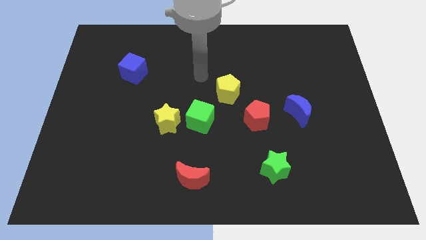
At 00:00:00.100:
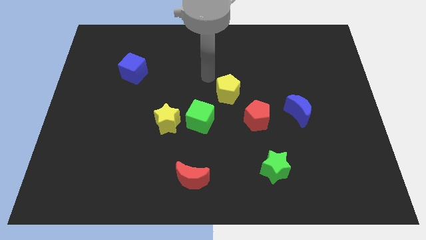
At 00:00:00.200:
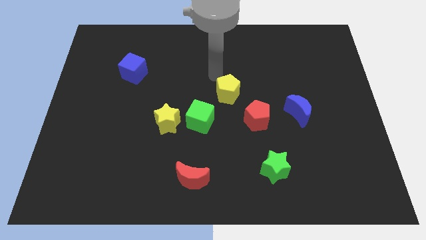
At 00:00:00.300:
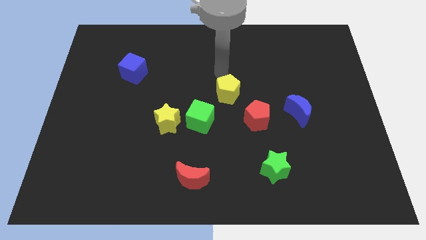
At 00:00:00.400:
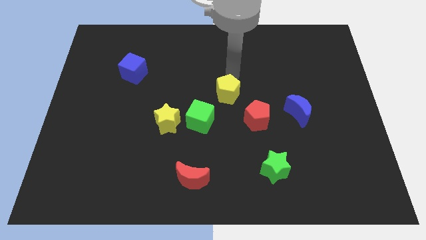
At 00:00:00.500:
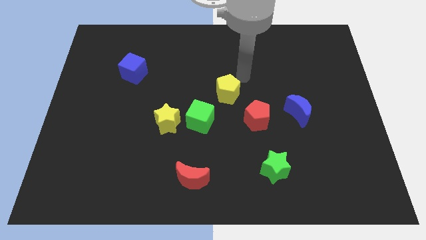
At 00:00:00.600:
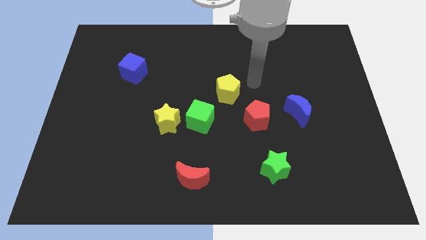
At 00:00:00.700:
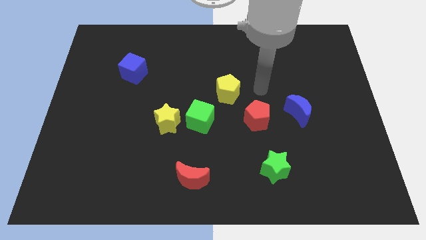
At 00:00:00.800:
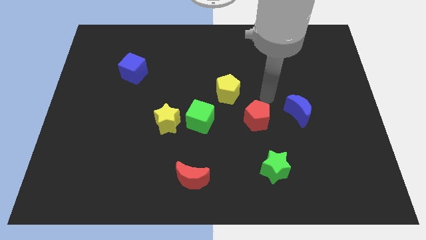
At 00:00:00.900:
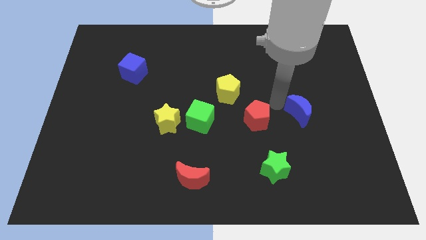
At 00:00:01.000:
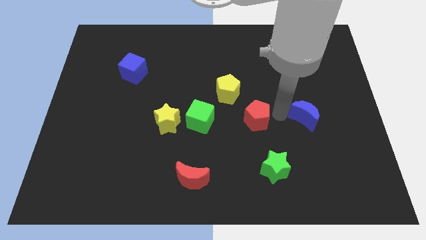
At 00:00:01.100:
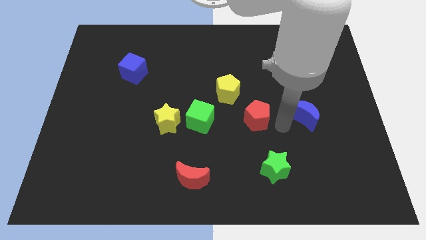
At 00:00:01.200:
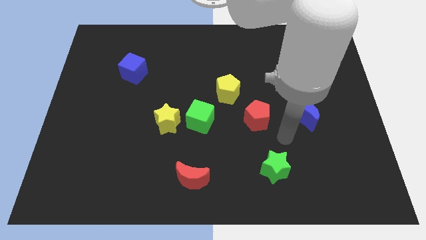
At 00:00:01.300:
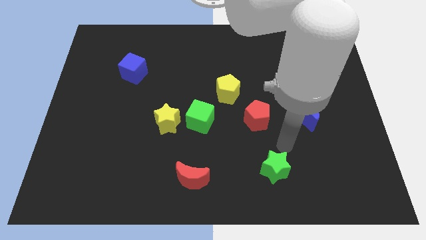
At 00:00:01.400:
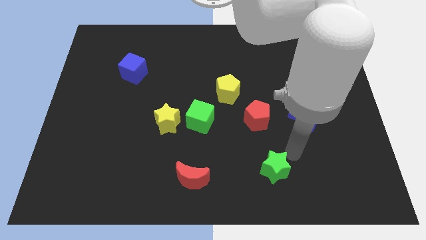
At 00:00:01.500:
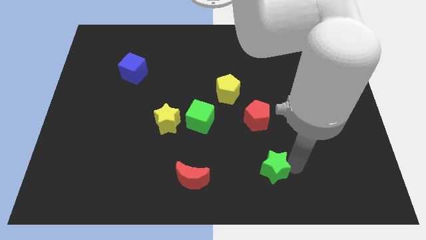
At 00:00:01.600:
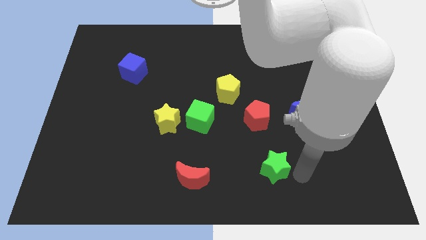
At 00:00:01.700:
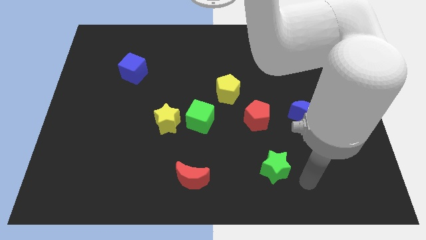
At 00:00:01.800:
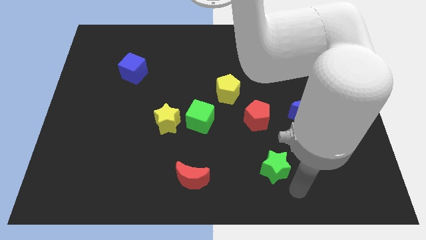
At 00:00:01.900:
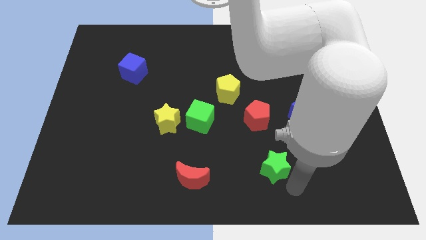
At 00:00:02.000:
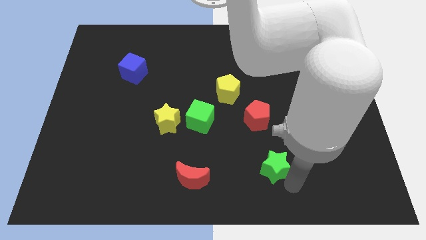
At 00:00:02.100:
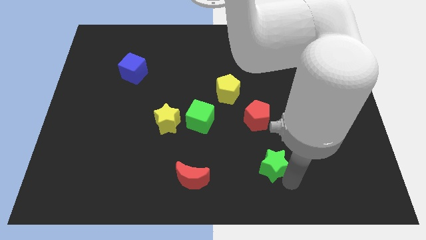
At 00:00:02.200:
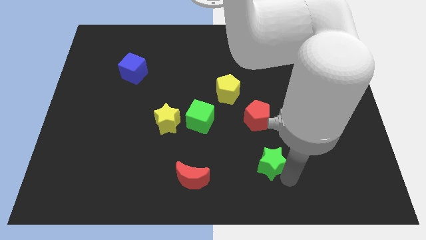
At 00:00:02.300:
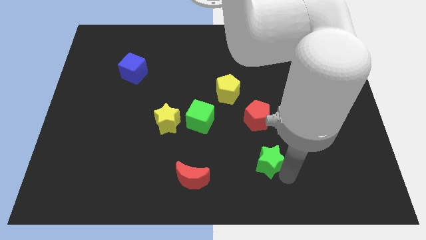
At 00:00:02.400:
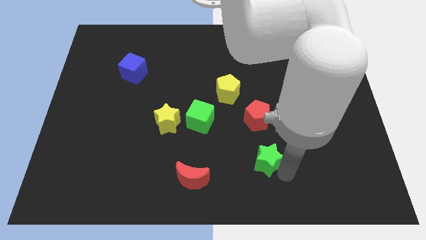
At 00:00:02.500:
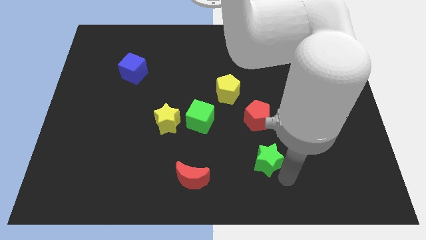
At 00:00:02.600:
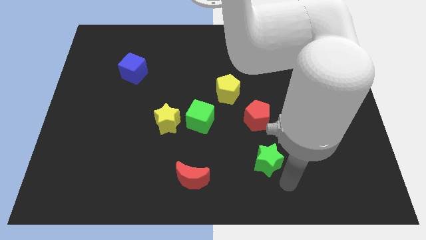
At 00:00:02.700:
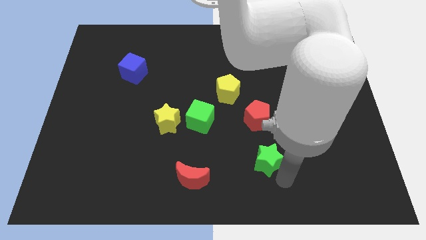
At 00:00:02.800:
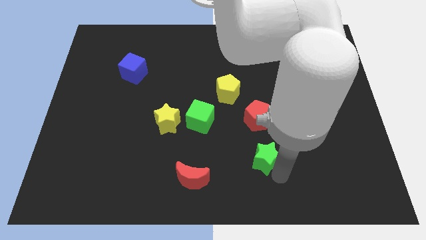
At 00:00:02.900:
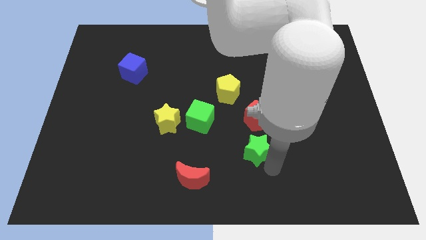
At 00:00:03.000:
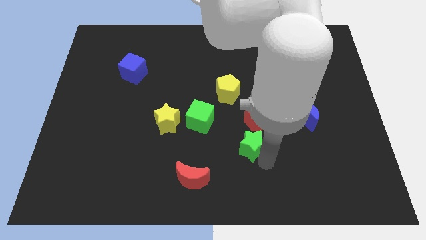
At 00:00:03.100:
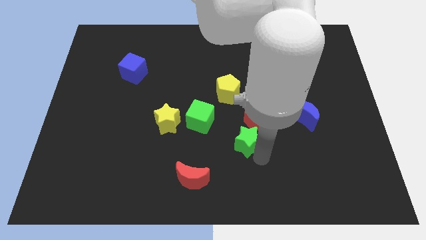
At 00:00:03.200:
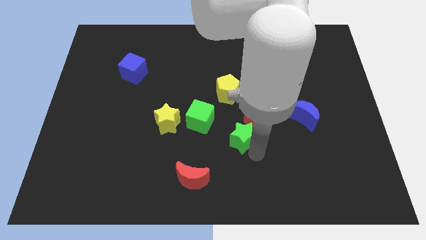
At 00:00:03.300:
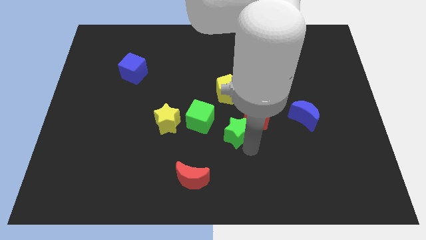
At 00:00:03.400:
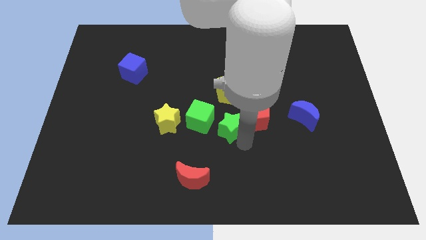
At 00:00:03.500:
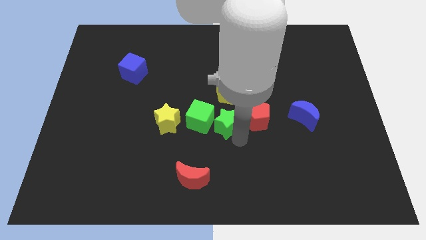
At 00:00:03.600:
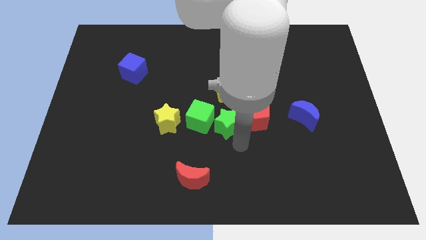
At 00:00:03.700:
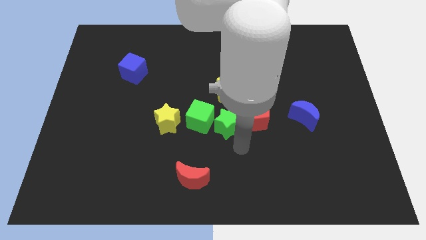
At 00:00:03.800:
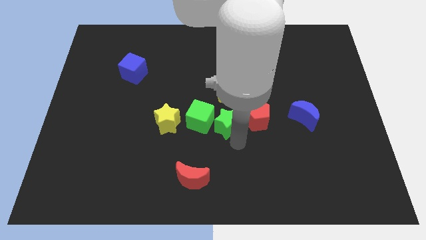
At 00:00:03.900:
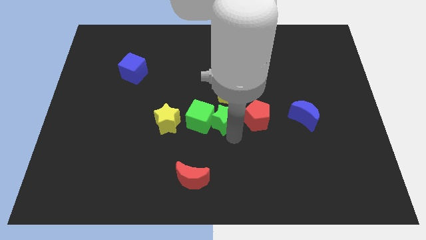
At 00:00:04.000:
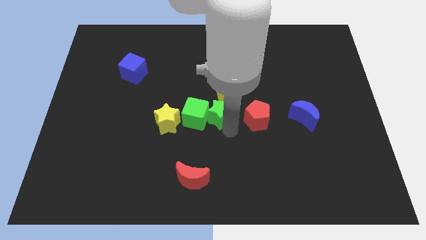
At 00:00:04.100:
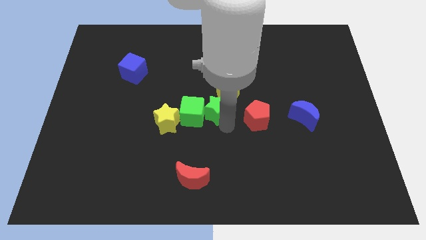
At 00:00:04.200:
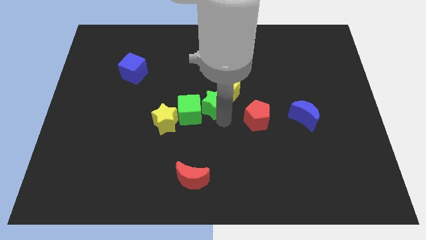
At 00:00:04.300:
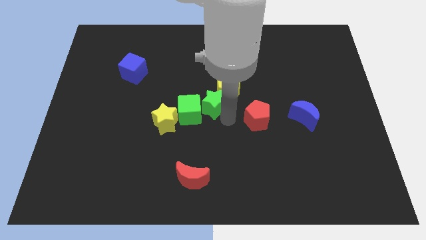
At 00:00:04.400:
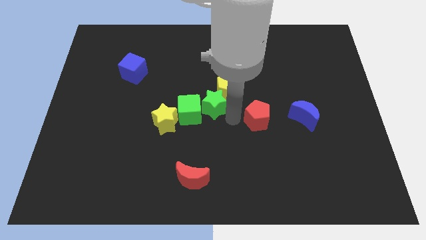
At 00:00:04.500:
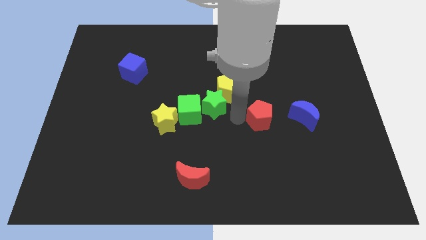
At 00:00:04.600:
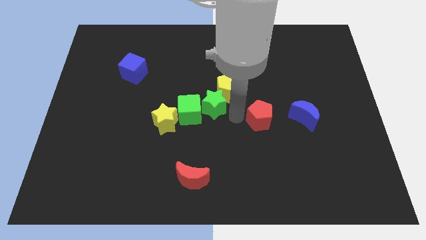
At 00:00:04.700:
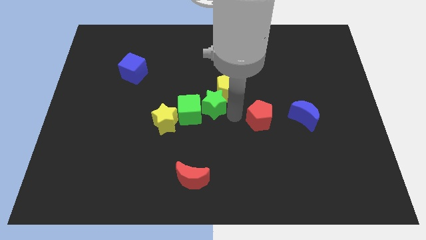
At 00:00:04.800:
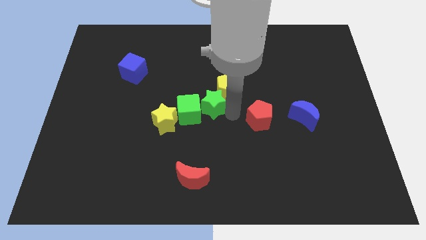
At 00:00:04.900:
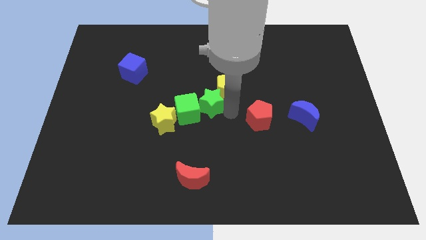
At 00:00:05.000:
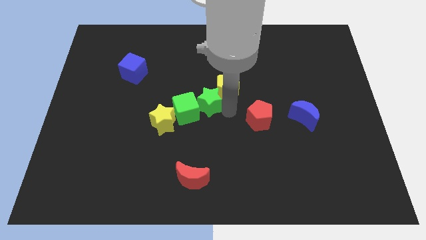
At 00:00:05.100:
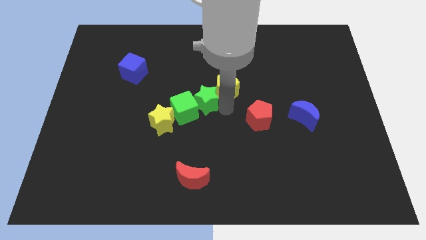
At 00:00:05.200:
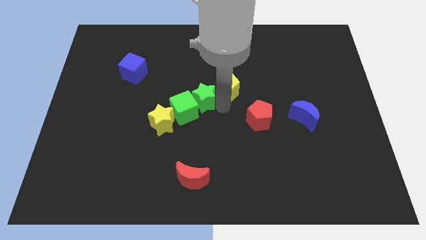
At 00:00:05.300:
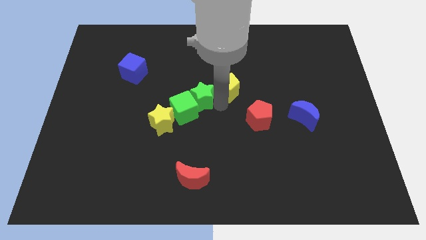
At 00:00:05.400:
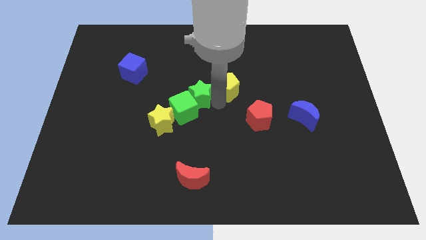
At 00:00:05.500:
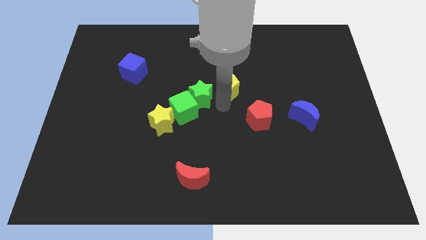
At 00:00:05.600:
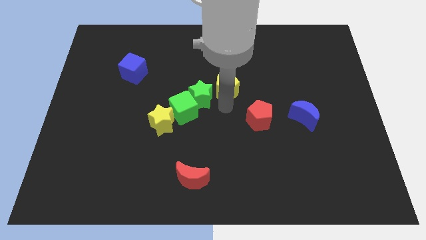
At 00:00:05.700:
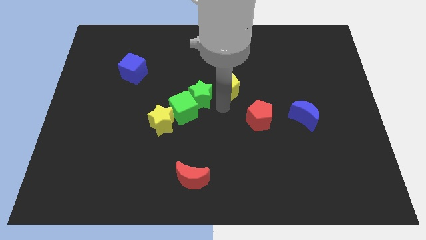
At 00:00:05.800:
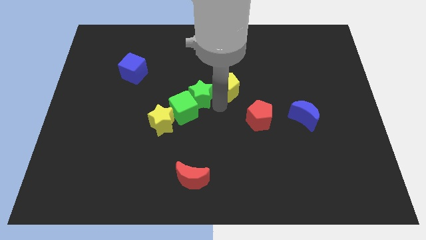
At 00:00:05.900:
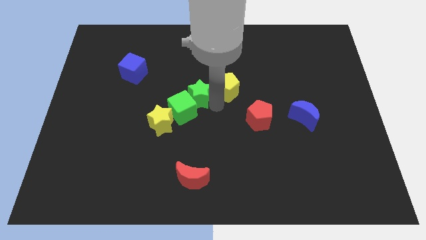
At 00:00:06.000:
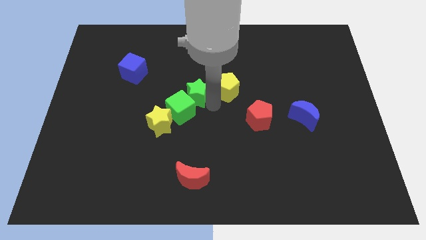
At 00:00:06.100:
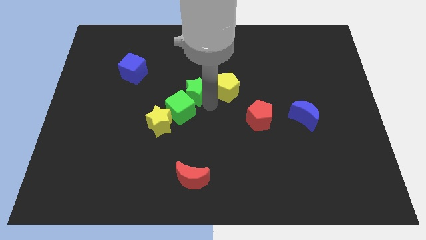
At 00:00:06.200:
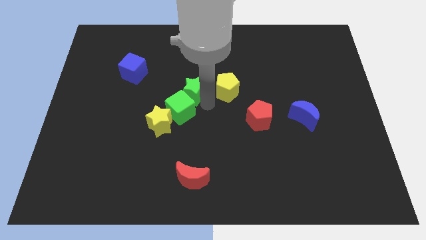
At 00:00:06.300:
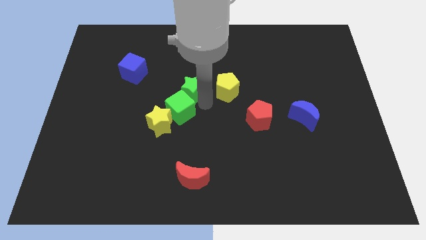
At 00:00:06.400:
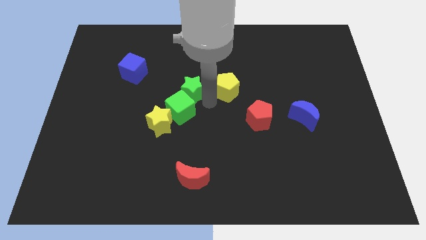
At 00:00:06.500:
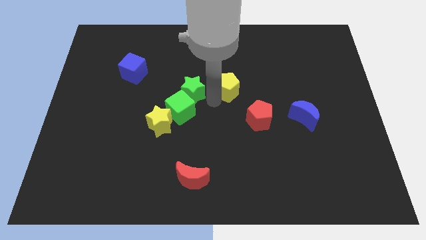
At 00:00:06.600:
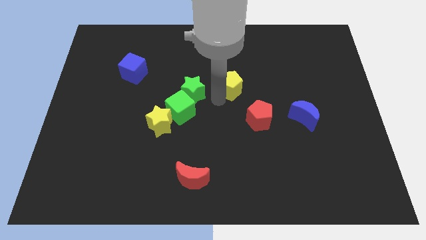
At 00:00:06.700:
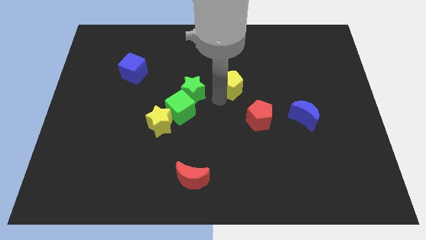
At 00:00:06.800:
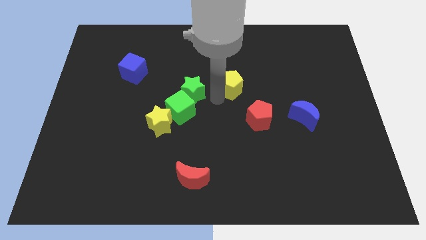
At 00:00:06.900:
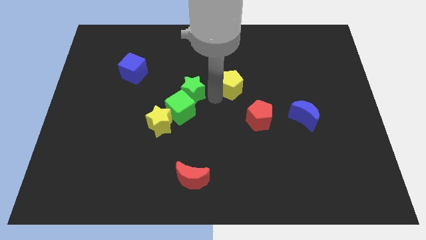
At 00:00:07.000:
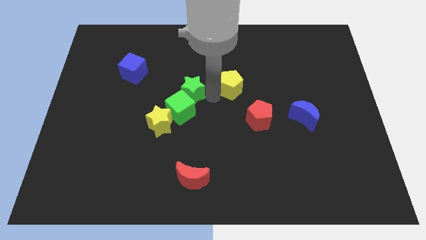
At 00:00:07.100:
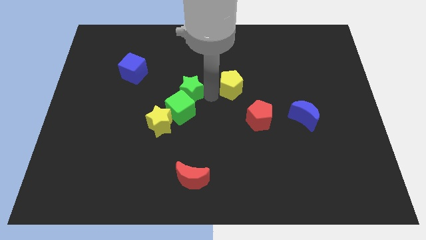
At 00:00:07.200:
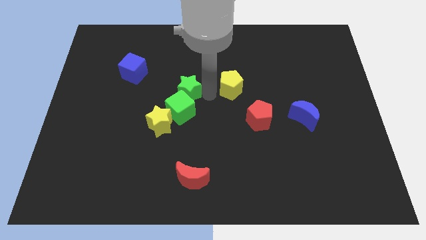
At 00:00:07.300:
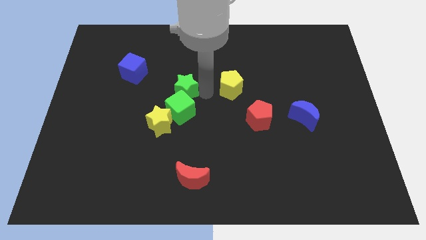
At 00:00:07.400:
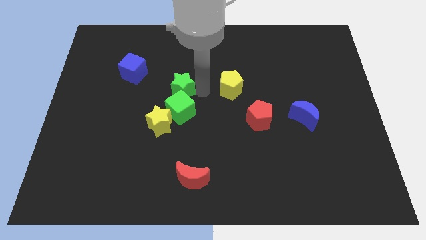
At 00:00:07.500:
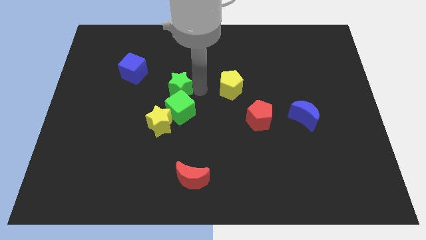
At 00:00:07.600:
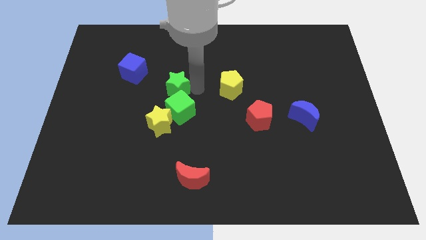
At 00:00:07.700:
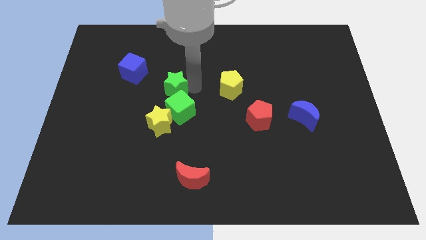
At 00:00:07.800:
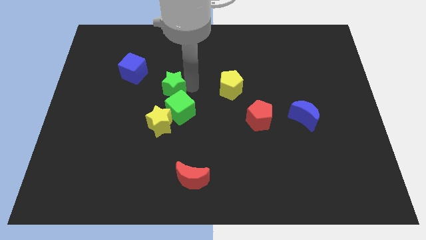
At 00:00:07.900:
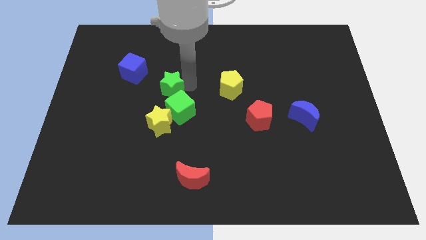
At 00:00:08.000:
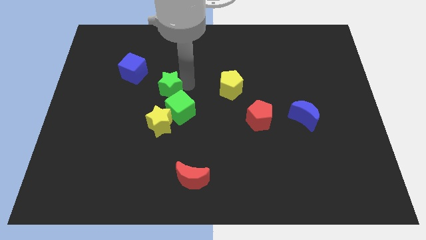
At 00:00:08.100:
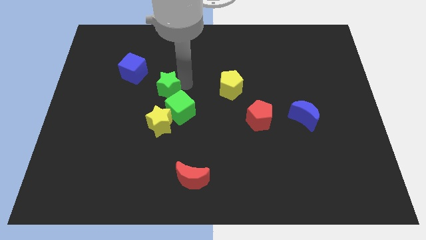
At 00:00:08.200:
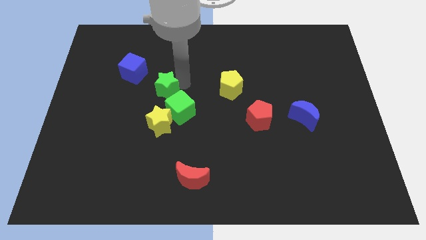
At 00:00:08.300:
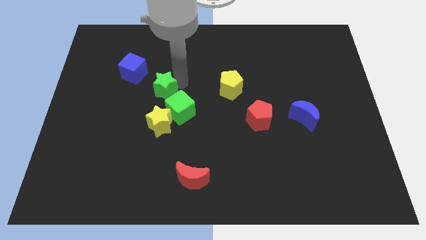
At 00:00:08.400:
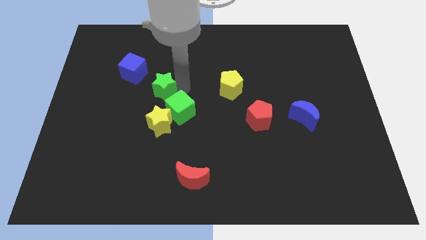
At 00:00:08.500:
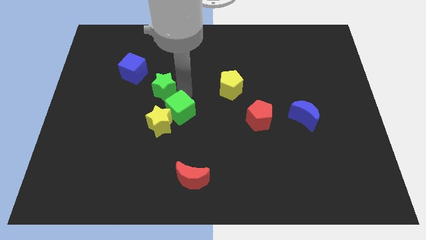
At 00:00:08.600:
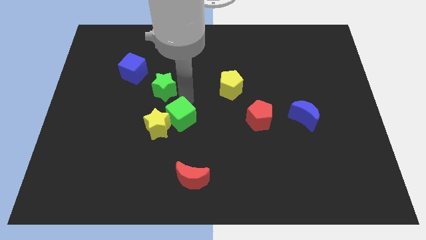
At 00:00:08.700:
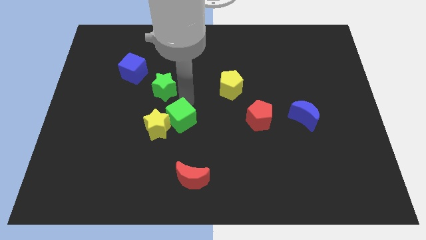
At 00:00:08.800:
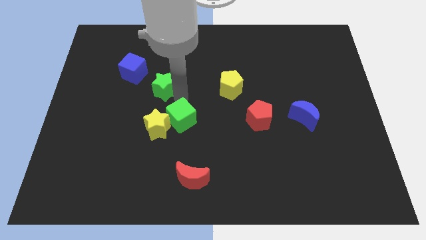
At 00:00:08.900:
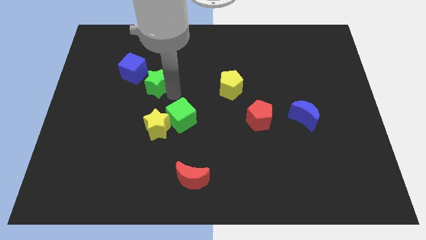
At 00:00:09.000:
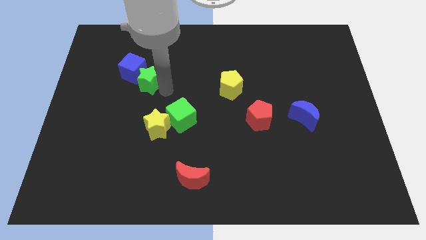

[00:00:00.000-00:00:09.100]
slide the green star next to the blue cube
